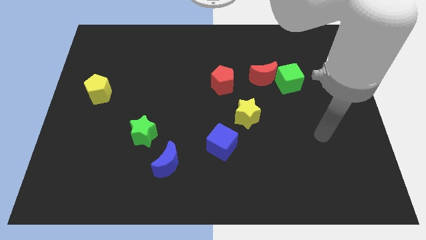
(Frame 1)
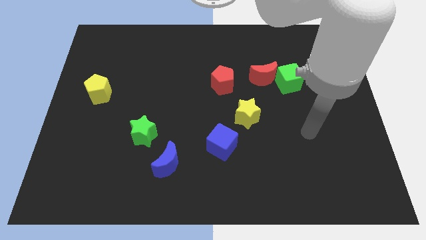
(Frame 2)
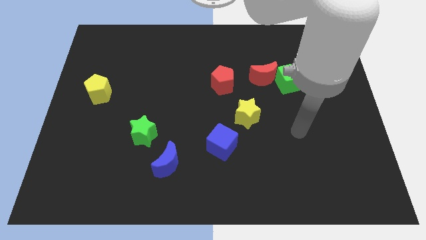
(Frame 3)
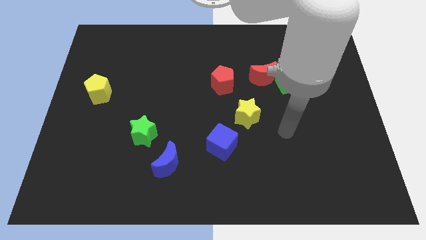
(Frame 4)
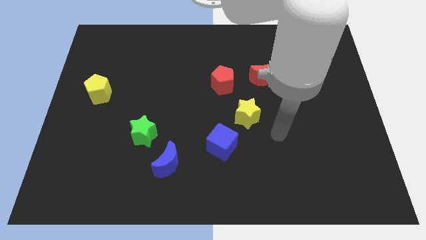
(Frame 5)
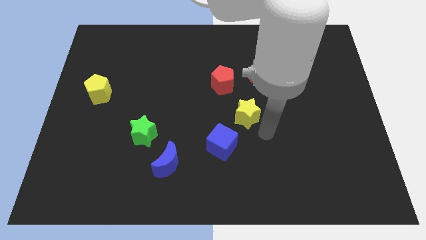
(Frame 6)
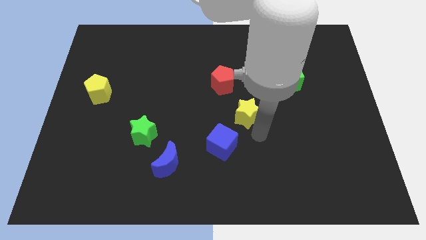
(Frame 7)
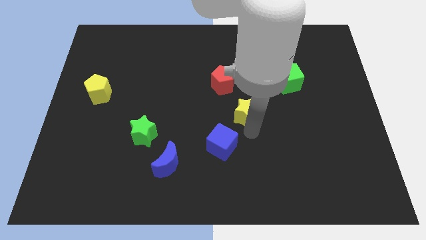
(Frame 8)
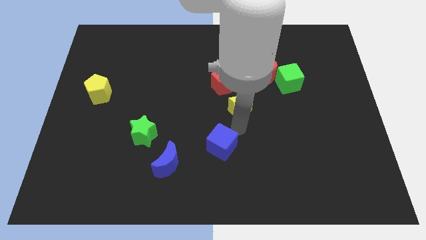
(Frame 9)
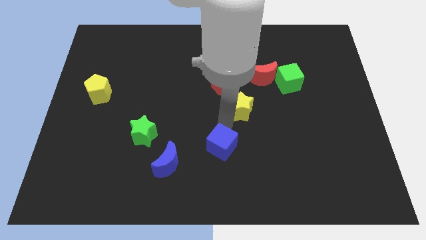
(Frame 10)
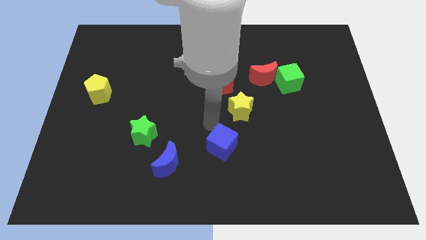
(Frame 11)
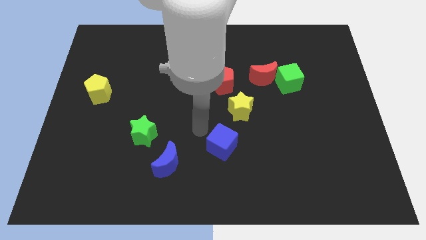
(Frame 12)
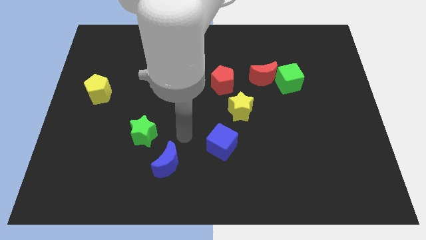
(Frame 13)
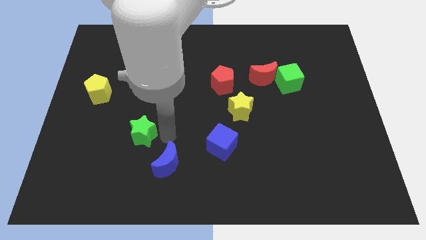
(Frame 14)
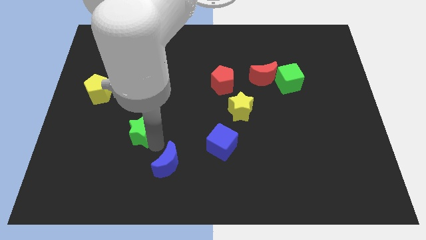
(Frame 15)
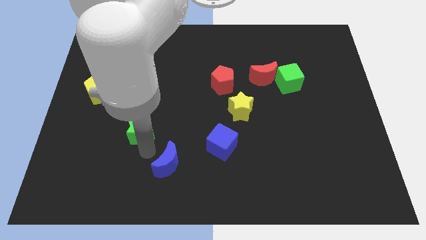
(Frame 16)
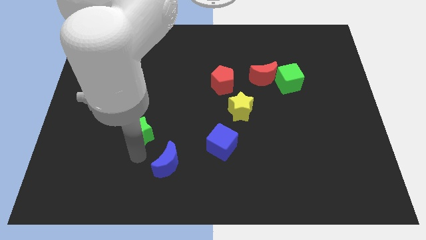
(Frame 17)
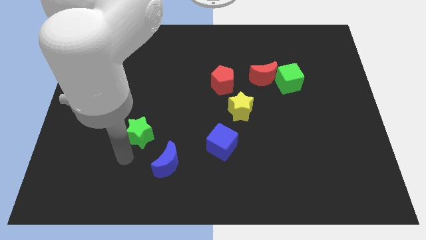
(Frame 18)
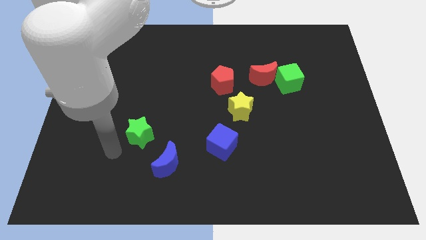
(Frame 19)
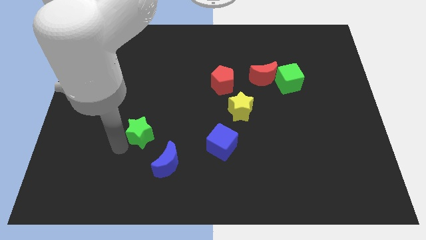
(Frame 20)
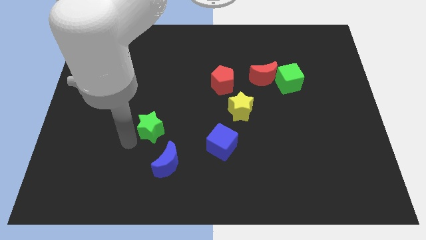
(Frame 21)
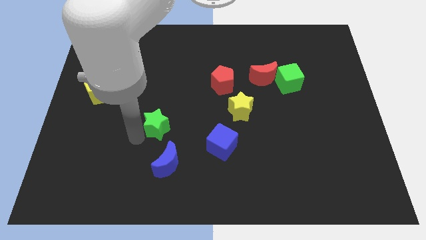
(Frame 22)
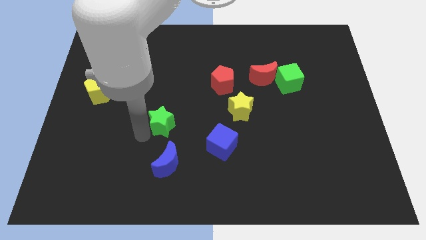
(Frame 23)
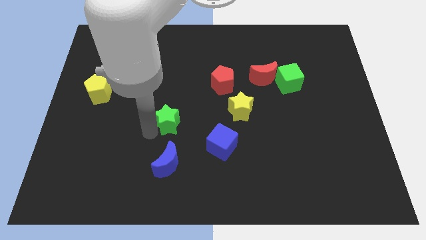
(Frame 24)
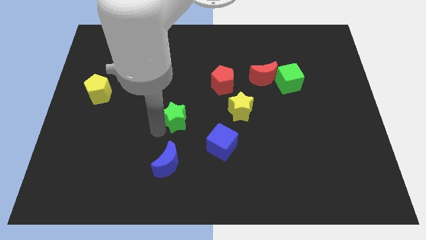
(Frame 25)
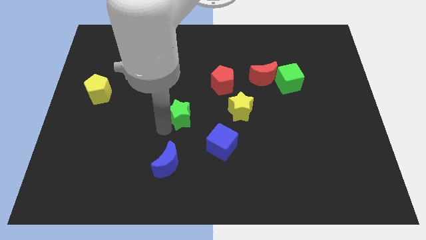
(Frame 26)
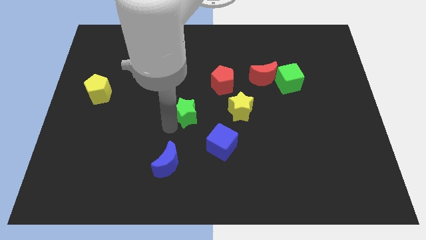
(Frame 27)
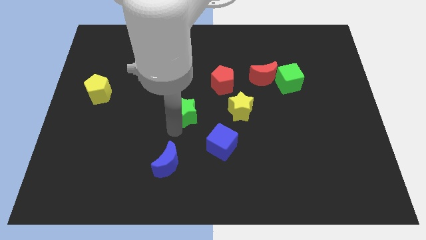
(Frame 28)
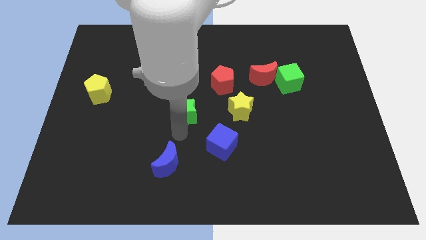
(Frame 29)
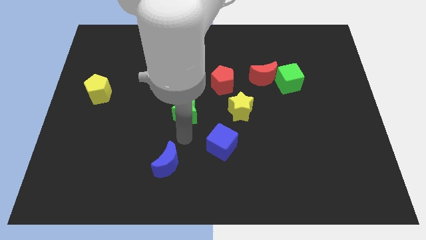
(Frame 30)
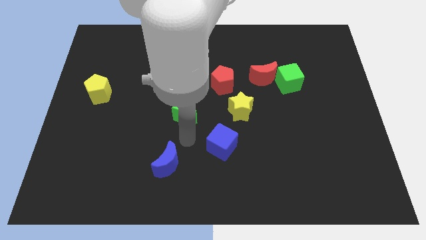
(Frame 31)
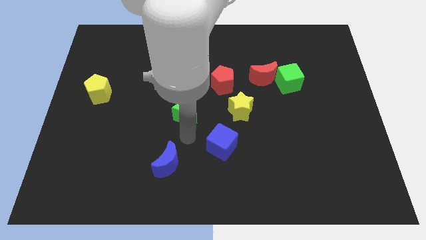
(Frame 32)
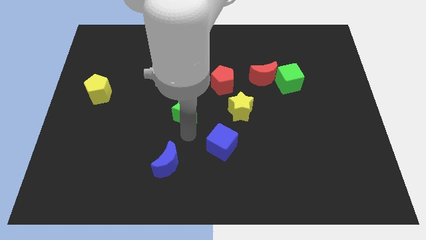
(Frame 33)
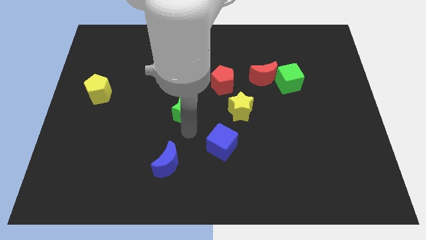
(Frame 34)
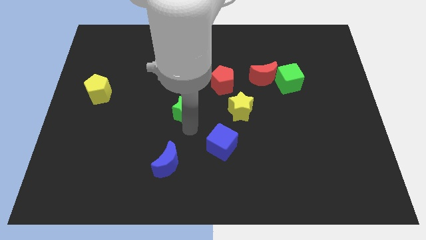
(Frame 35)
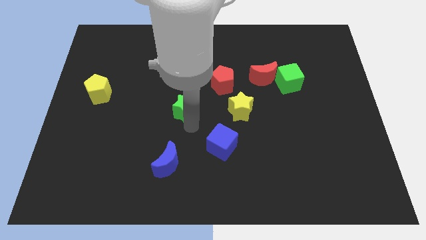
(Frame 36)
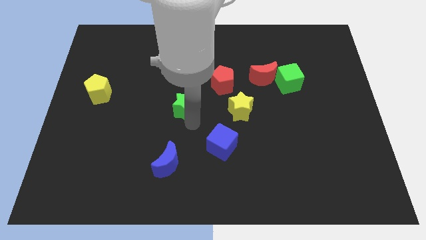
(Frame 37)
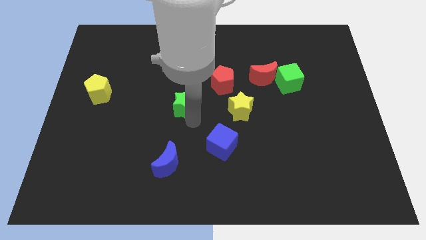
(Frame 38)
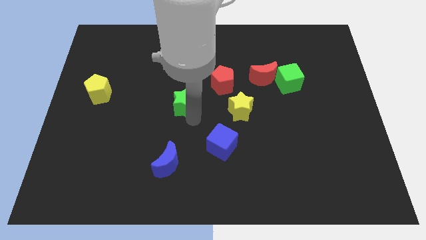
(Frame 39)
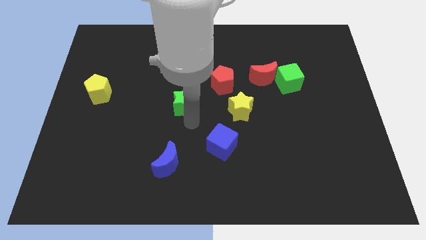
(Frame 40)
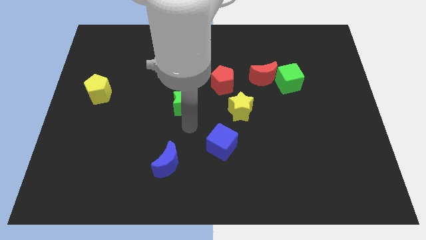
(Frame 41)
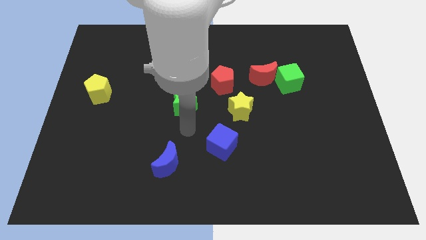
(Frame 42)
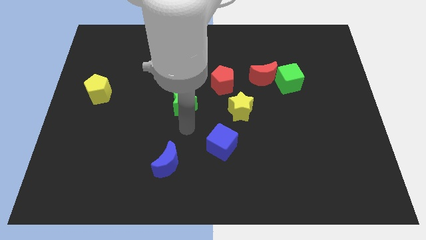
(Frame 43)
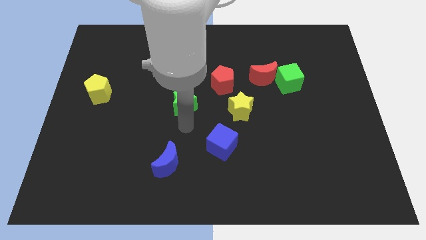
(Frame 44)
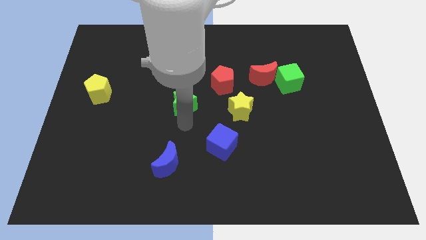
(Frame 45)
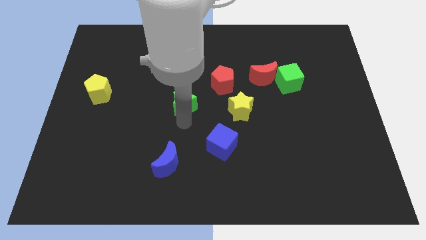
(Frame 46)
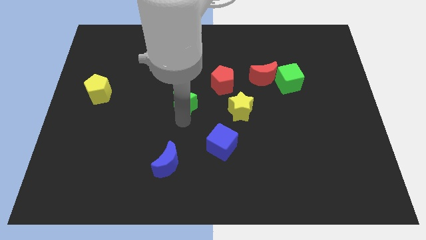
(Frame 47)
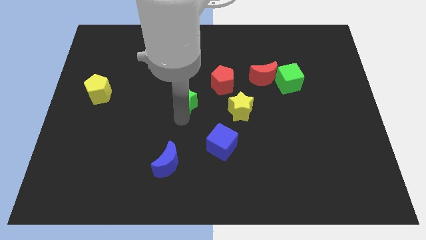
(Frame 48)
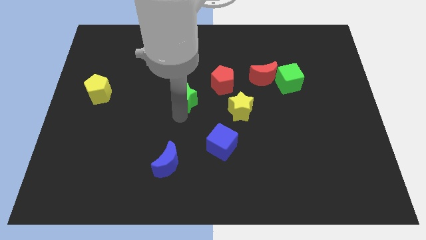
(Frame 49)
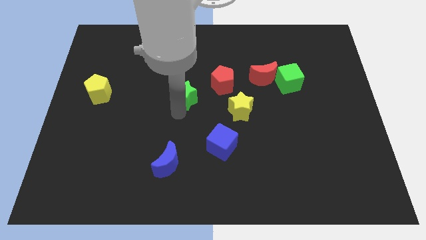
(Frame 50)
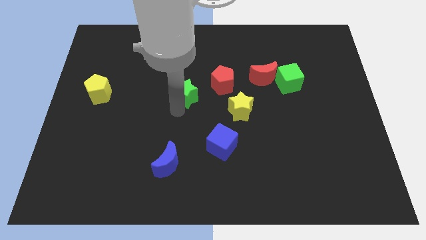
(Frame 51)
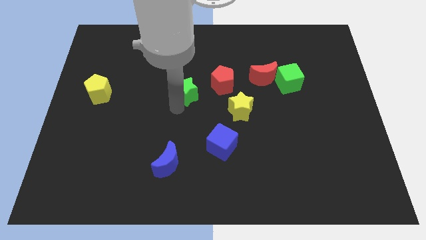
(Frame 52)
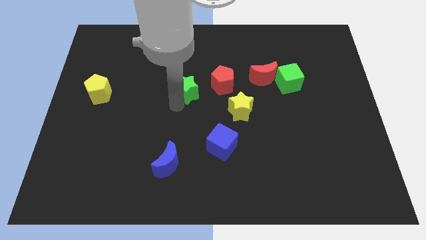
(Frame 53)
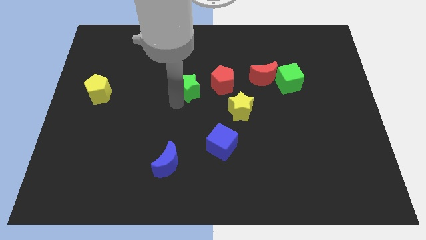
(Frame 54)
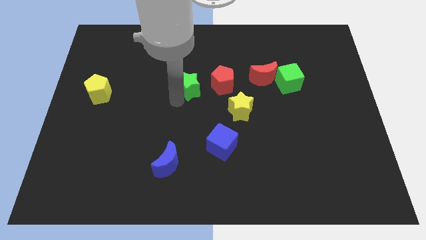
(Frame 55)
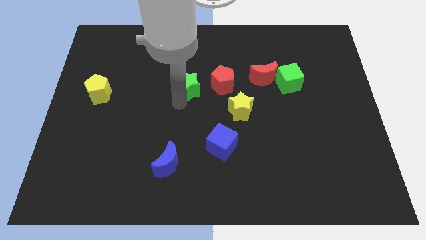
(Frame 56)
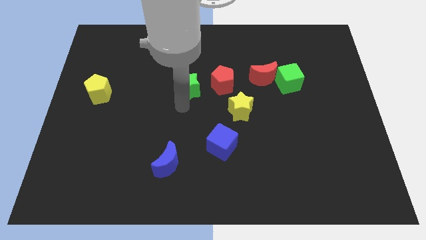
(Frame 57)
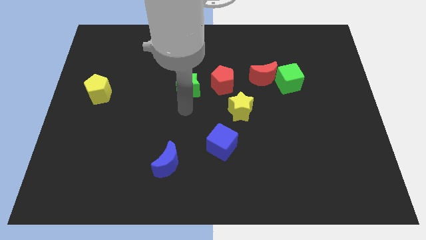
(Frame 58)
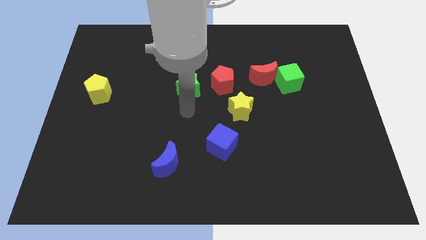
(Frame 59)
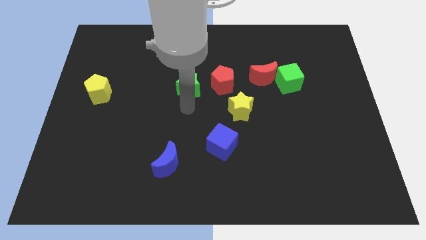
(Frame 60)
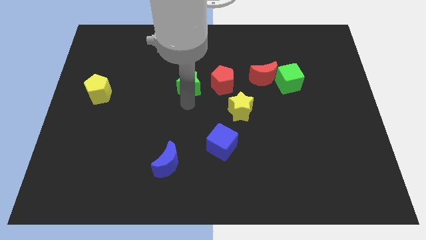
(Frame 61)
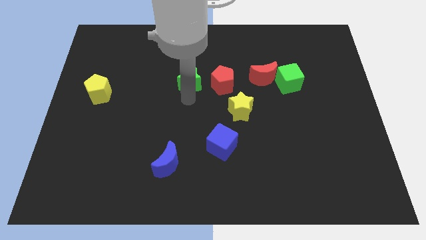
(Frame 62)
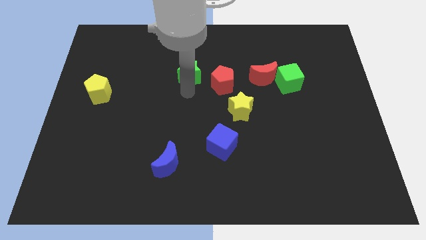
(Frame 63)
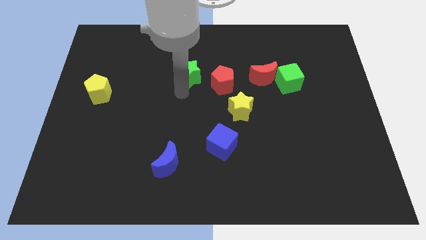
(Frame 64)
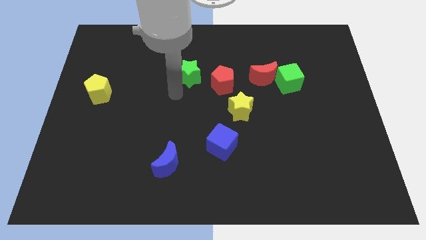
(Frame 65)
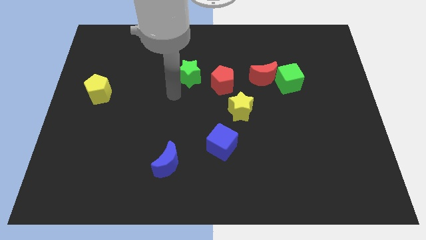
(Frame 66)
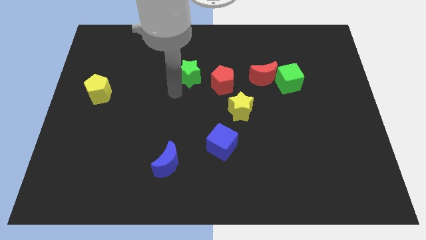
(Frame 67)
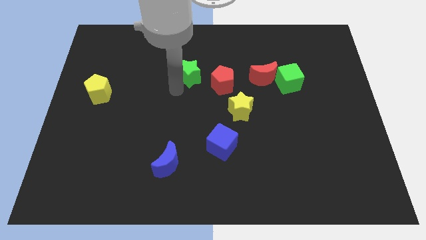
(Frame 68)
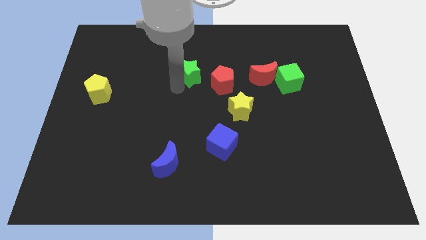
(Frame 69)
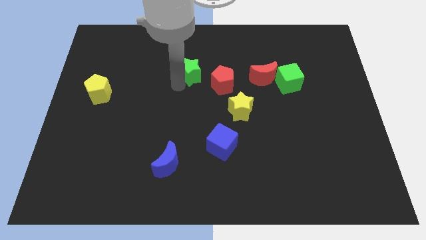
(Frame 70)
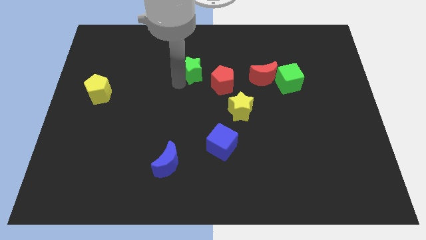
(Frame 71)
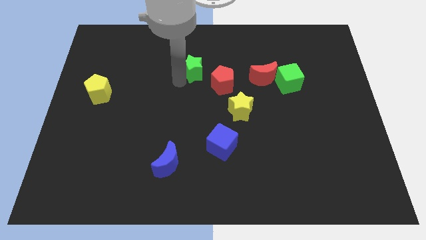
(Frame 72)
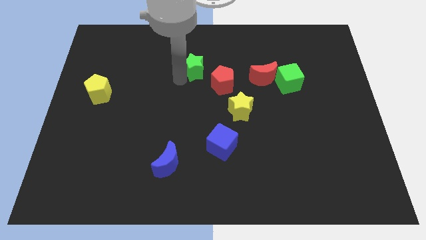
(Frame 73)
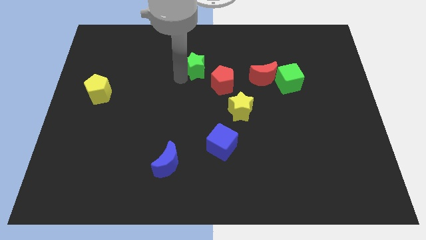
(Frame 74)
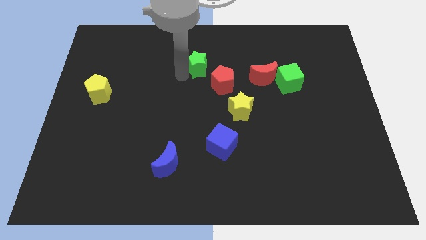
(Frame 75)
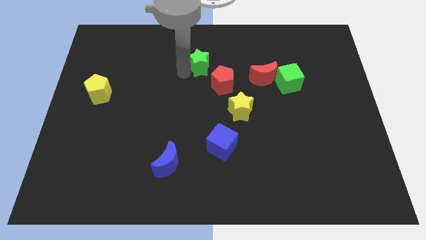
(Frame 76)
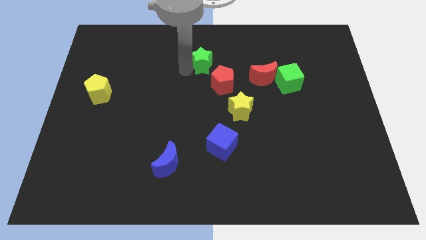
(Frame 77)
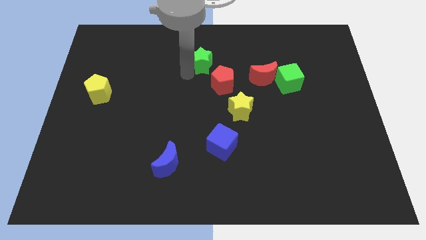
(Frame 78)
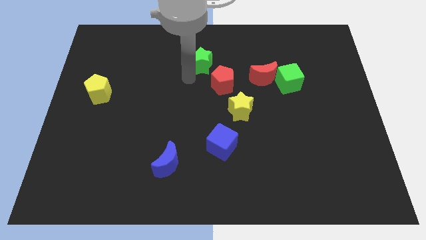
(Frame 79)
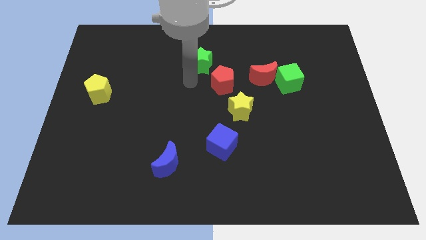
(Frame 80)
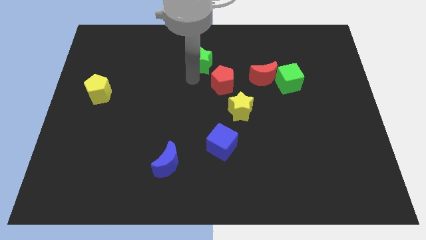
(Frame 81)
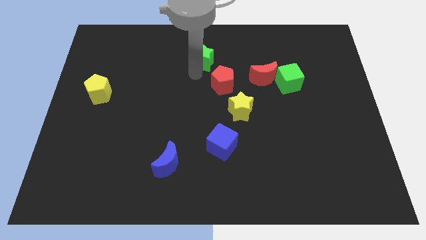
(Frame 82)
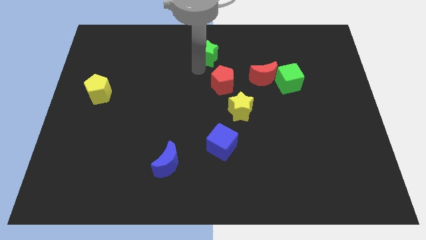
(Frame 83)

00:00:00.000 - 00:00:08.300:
slide the green star to the towards your base

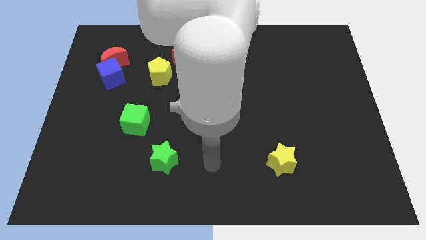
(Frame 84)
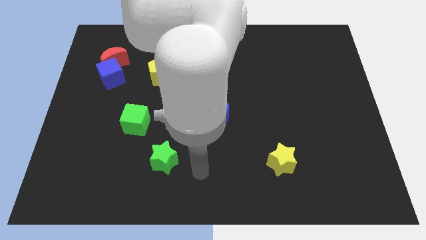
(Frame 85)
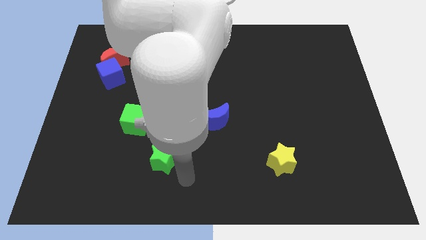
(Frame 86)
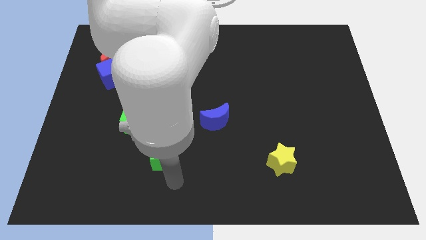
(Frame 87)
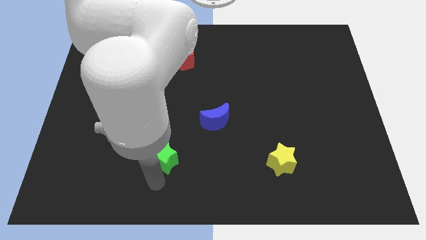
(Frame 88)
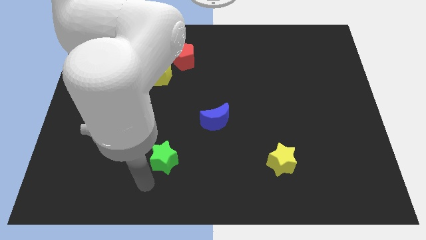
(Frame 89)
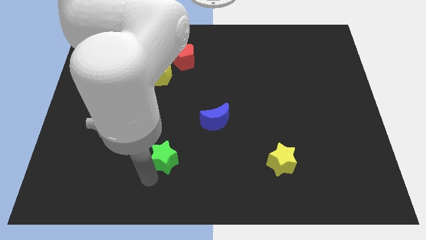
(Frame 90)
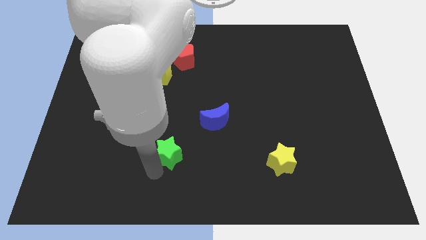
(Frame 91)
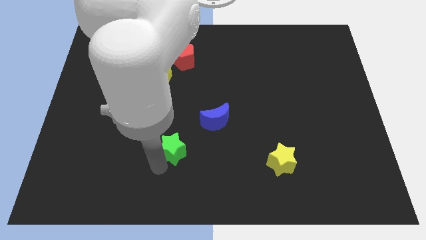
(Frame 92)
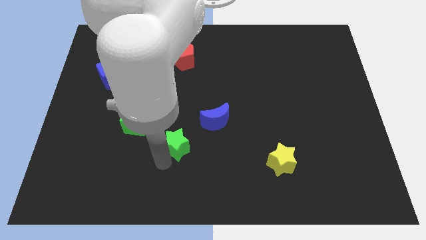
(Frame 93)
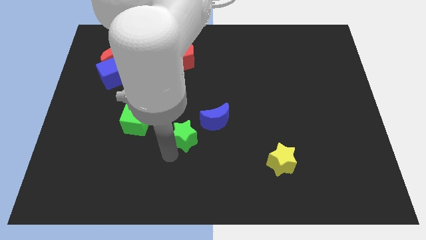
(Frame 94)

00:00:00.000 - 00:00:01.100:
put the green star to the center of the board
